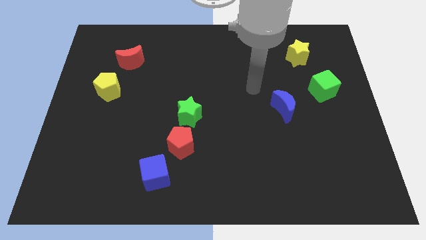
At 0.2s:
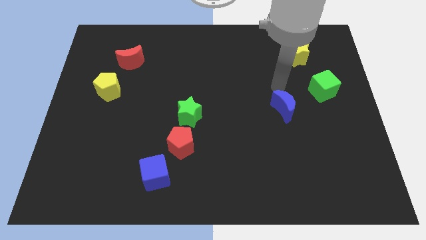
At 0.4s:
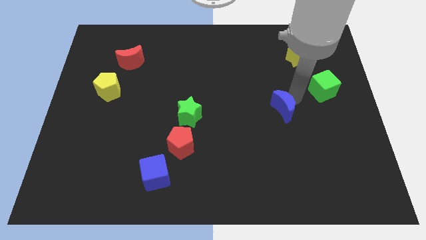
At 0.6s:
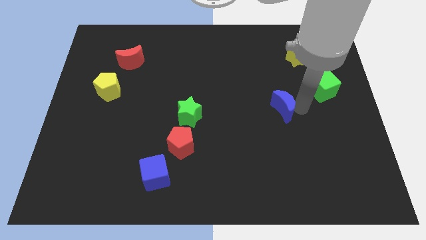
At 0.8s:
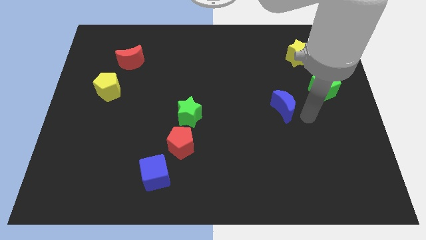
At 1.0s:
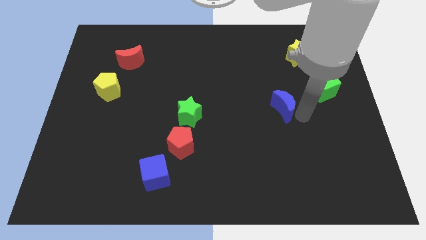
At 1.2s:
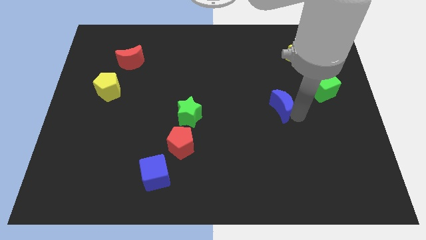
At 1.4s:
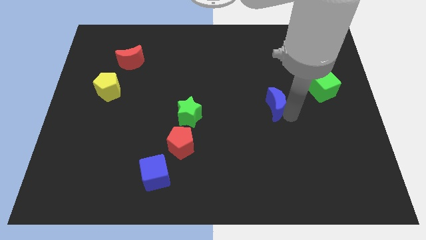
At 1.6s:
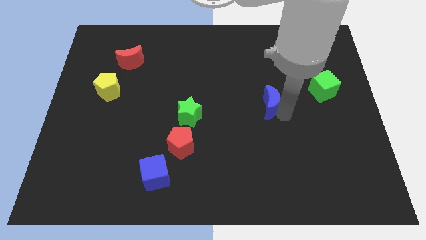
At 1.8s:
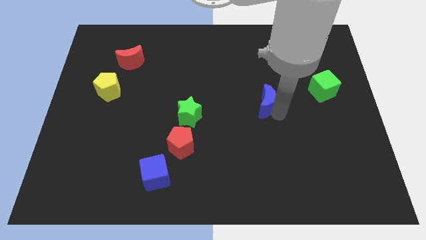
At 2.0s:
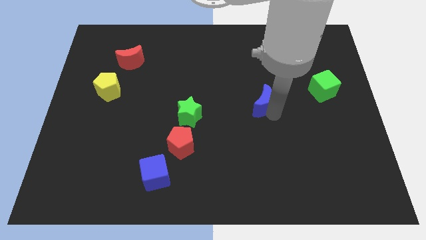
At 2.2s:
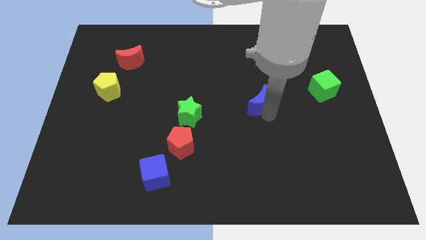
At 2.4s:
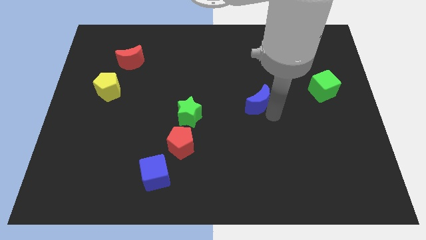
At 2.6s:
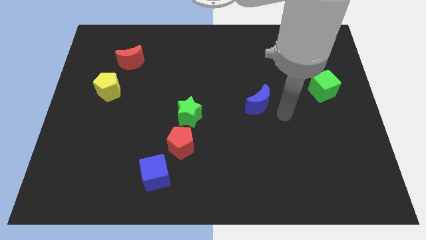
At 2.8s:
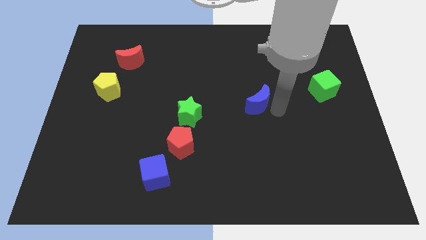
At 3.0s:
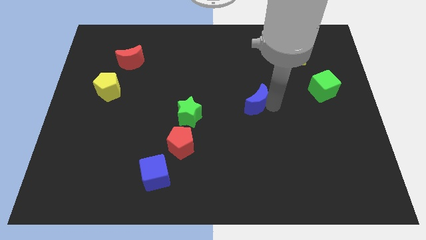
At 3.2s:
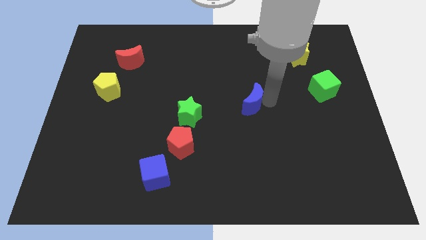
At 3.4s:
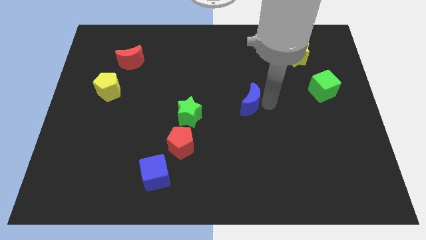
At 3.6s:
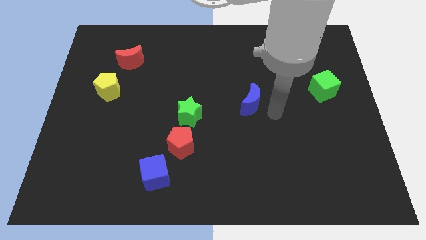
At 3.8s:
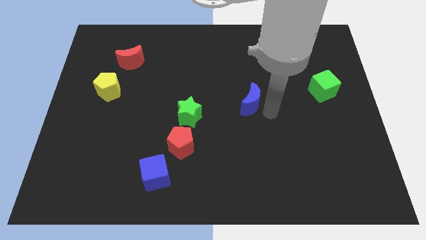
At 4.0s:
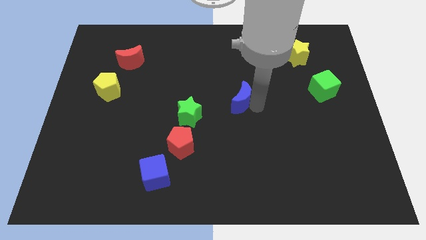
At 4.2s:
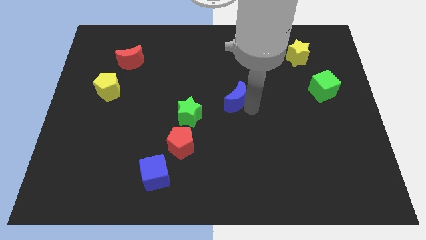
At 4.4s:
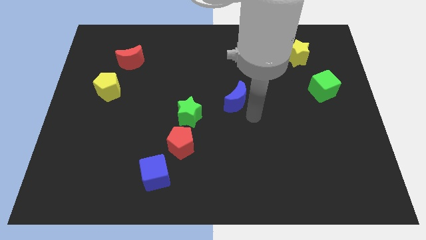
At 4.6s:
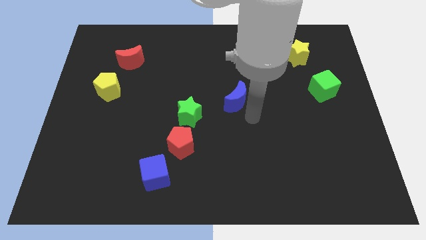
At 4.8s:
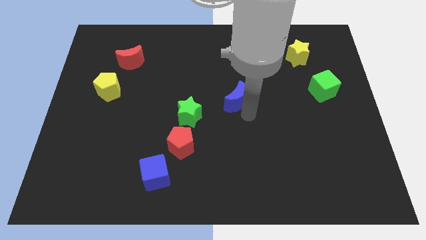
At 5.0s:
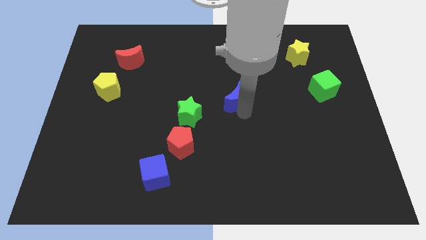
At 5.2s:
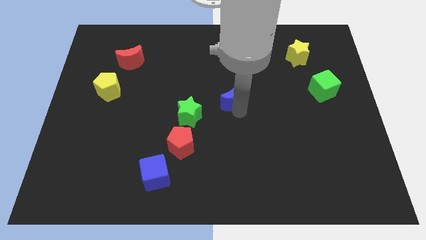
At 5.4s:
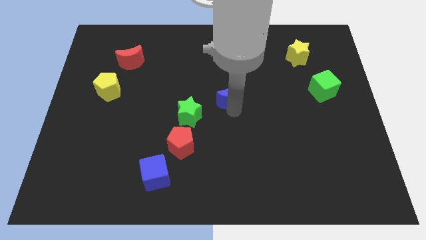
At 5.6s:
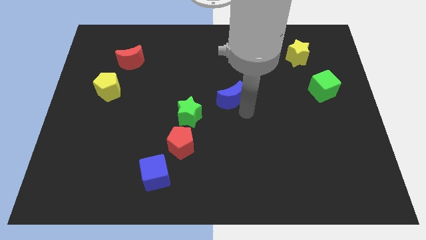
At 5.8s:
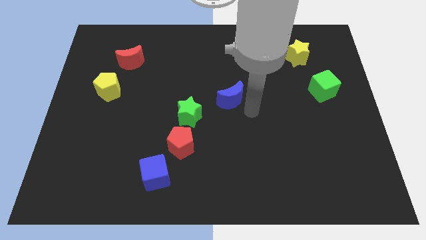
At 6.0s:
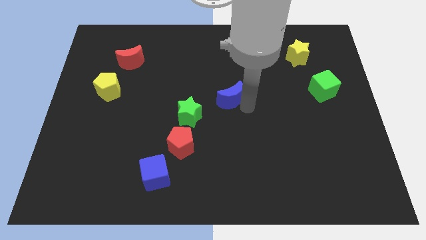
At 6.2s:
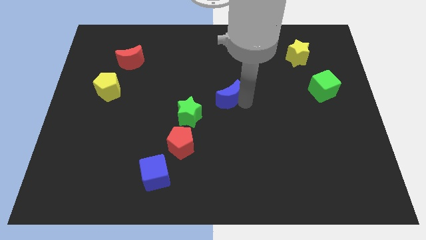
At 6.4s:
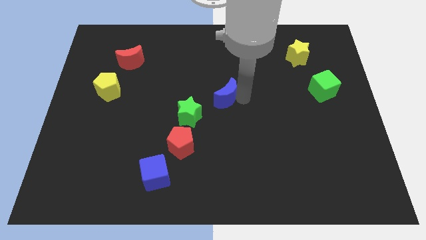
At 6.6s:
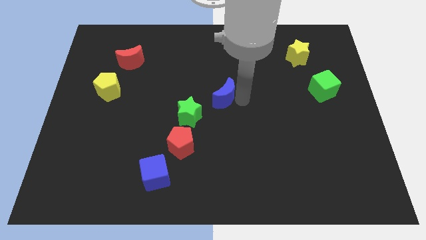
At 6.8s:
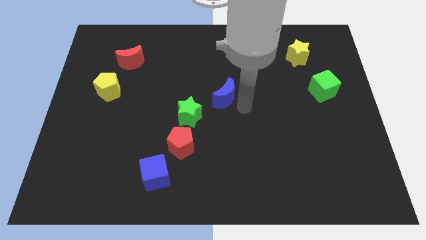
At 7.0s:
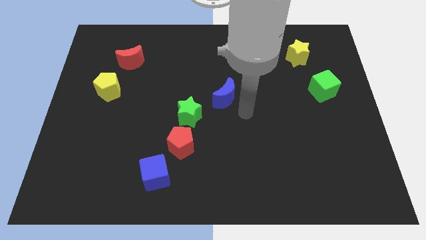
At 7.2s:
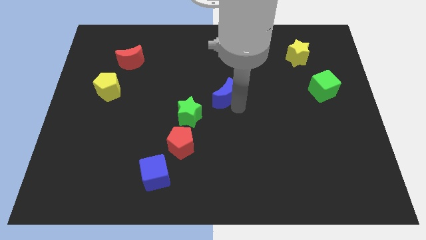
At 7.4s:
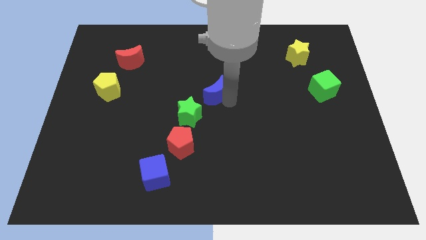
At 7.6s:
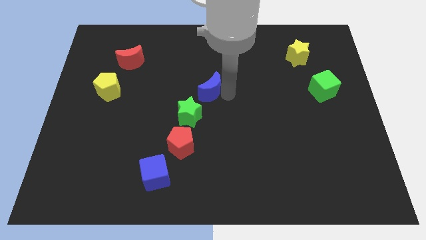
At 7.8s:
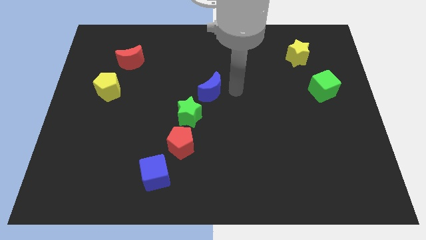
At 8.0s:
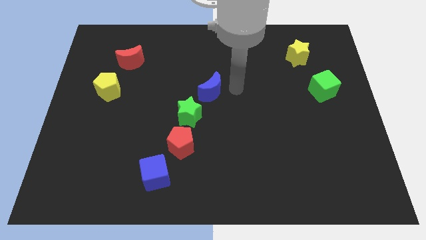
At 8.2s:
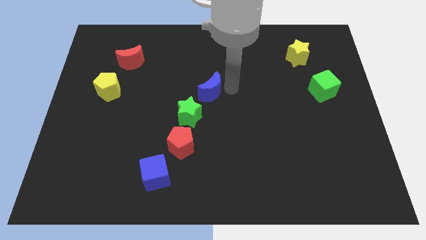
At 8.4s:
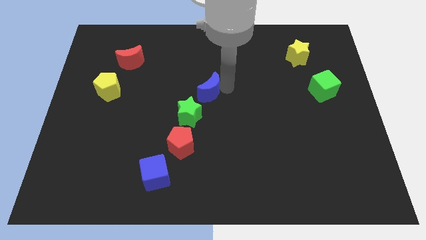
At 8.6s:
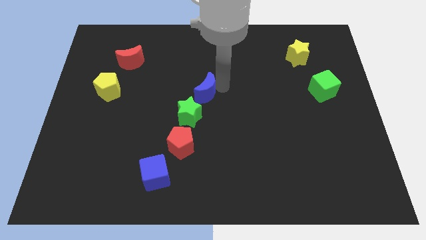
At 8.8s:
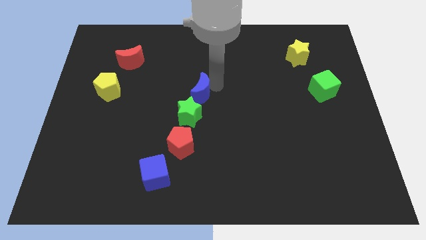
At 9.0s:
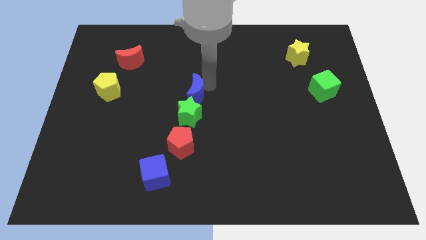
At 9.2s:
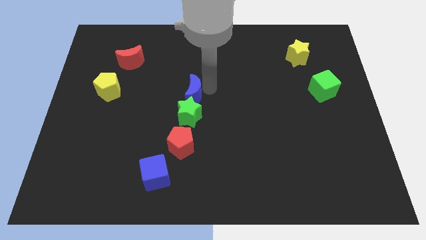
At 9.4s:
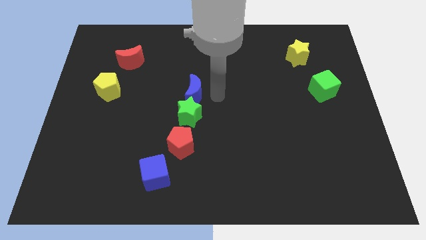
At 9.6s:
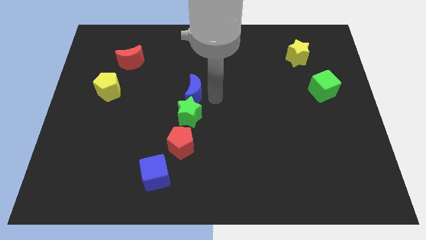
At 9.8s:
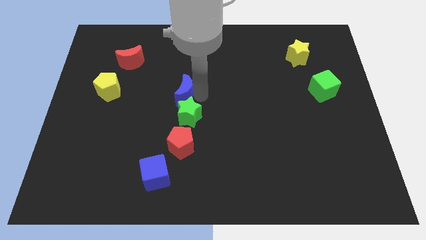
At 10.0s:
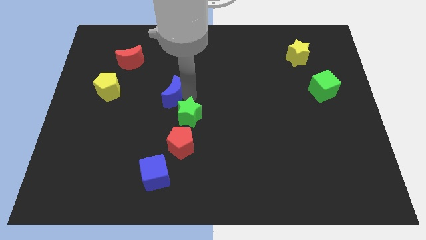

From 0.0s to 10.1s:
move the blue moon right of the yellow pentagon

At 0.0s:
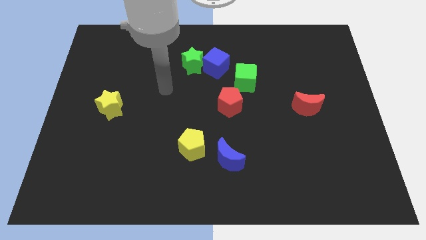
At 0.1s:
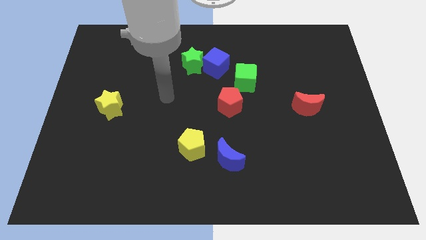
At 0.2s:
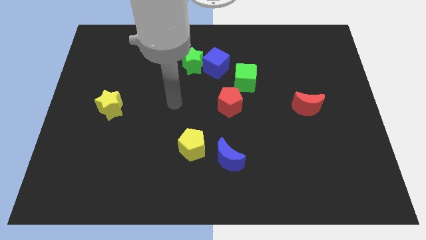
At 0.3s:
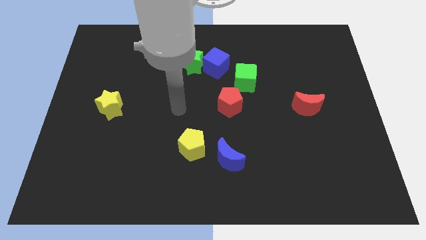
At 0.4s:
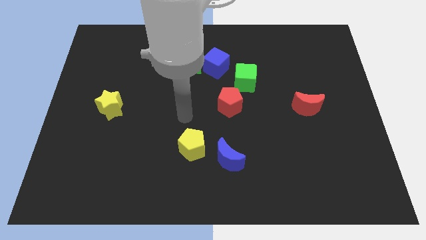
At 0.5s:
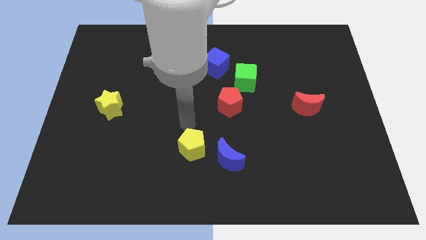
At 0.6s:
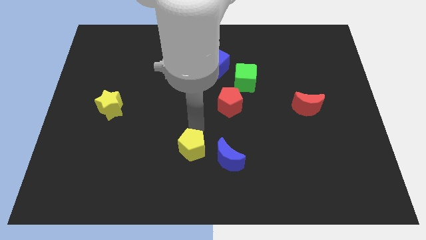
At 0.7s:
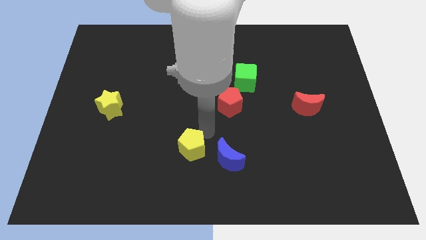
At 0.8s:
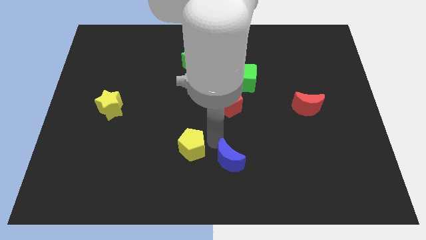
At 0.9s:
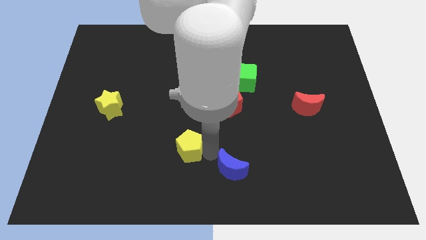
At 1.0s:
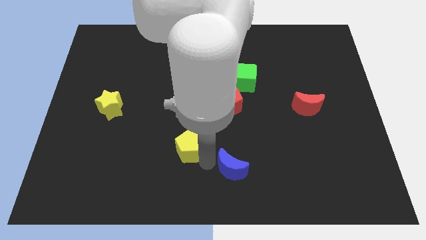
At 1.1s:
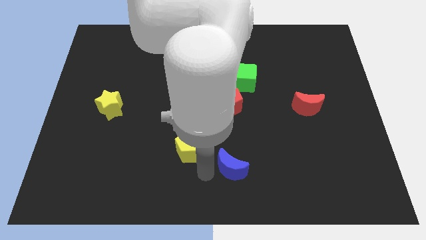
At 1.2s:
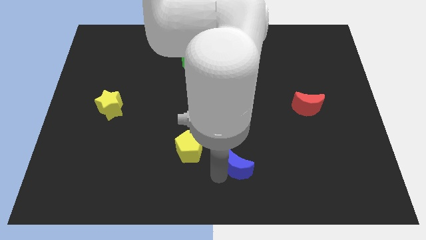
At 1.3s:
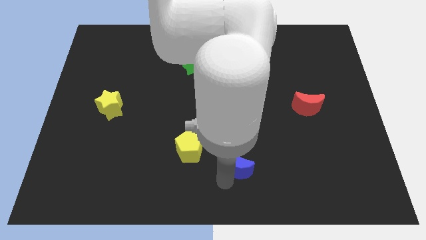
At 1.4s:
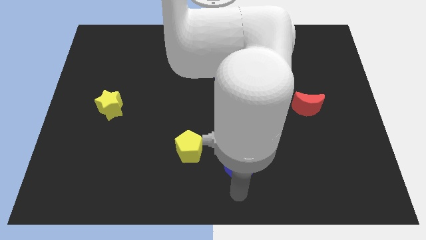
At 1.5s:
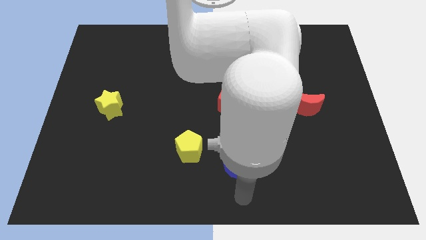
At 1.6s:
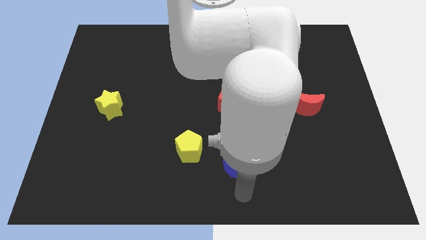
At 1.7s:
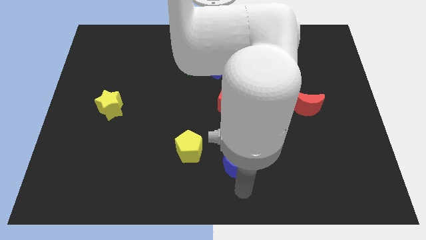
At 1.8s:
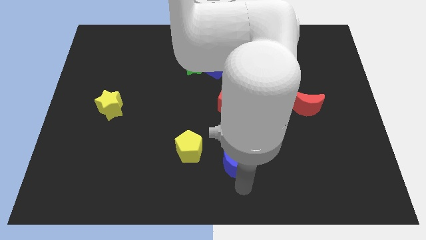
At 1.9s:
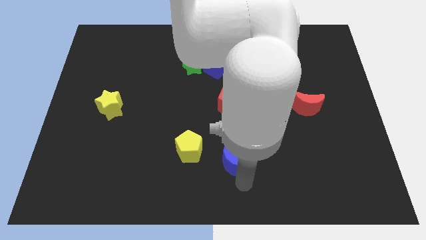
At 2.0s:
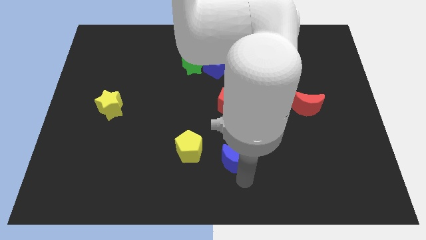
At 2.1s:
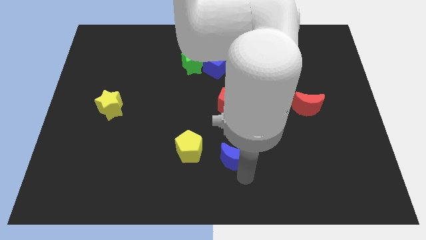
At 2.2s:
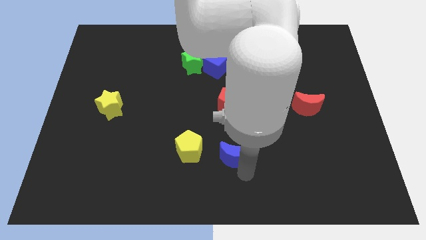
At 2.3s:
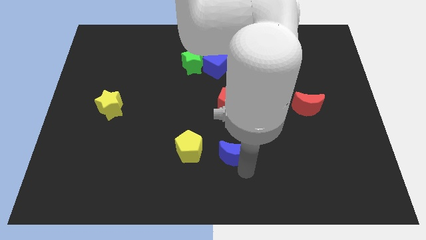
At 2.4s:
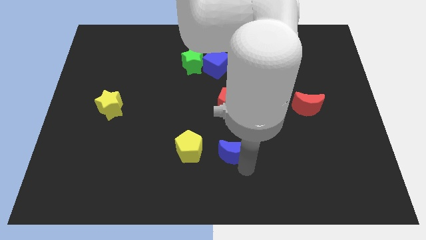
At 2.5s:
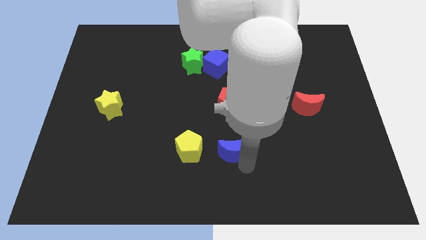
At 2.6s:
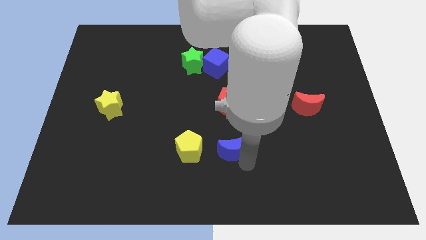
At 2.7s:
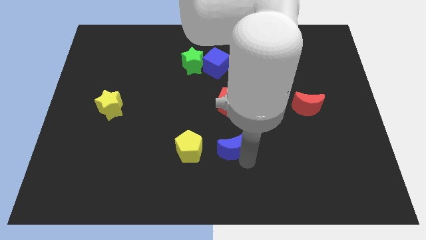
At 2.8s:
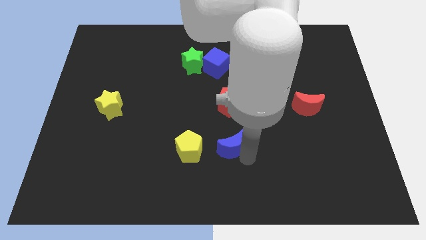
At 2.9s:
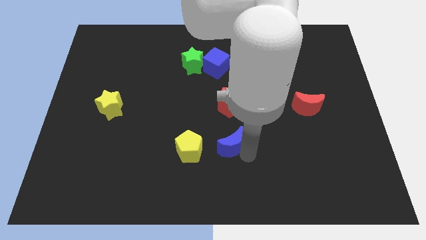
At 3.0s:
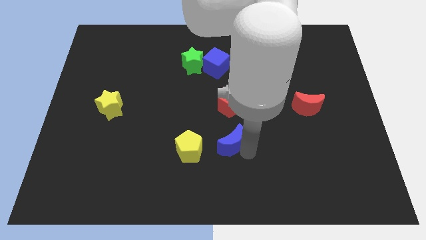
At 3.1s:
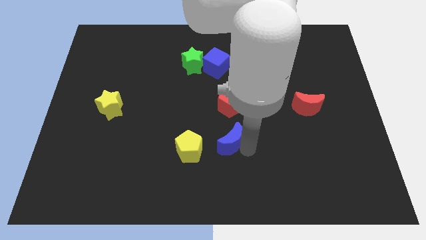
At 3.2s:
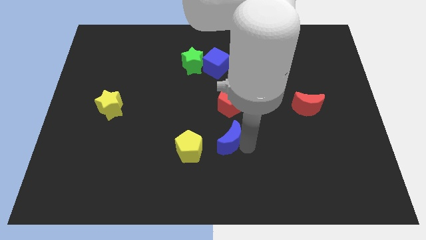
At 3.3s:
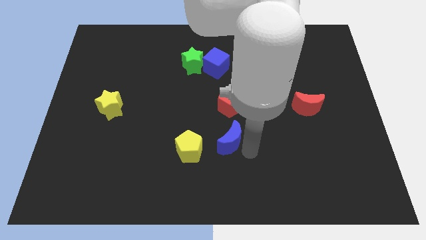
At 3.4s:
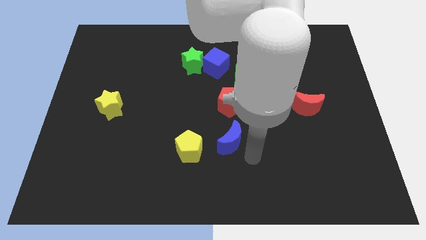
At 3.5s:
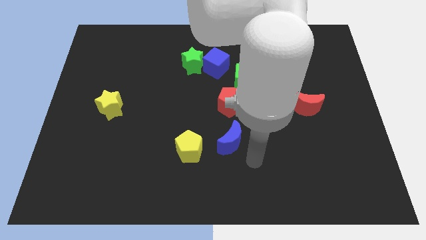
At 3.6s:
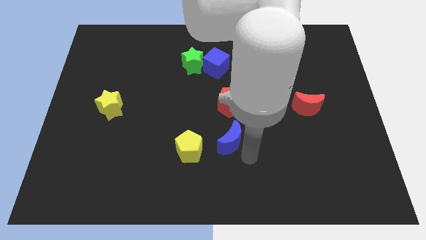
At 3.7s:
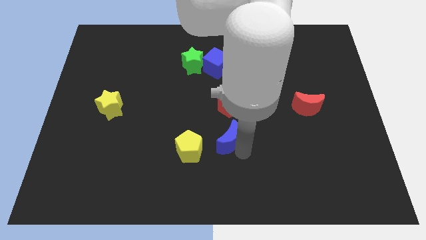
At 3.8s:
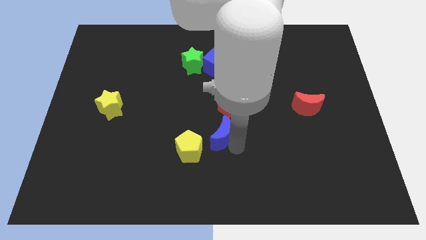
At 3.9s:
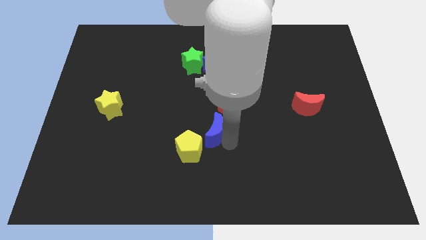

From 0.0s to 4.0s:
push the blue moon to the bottom left side of the red pentagon
